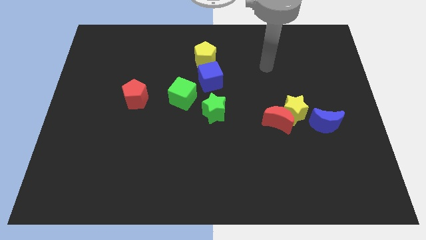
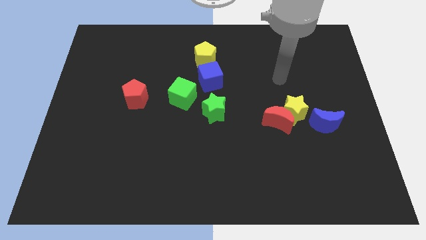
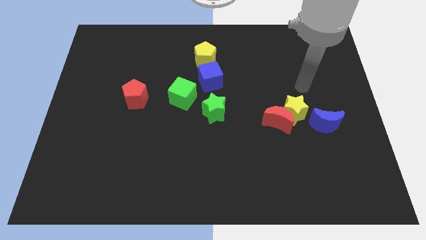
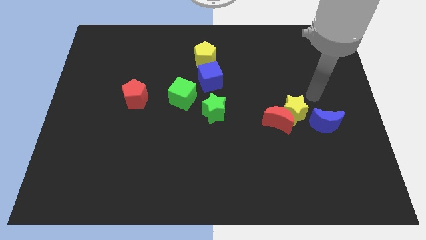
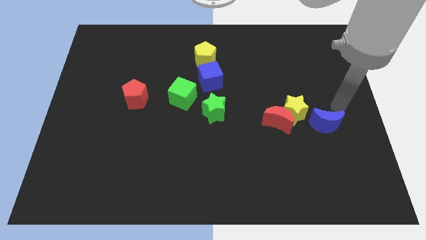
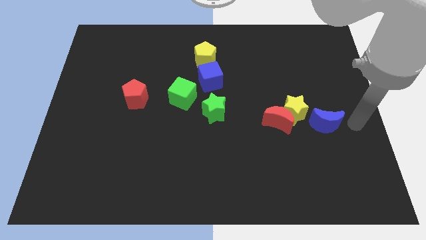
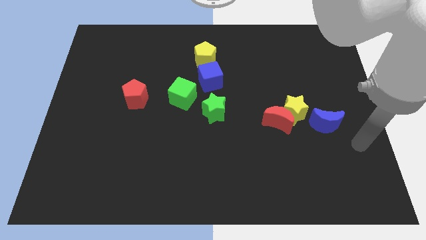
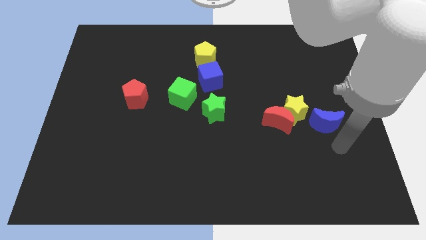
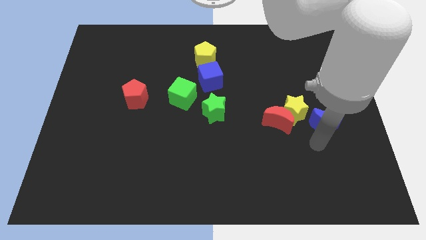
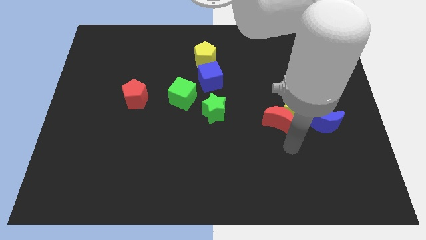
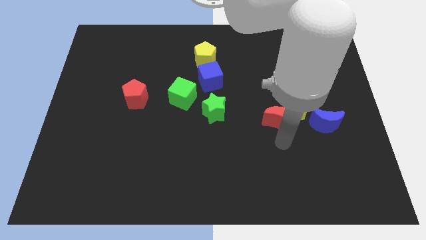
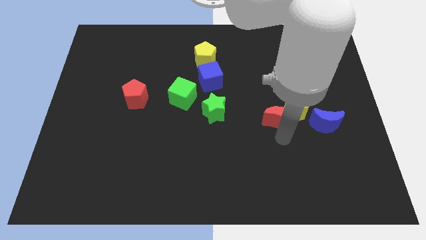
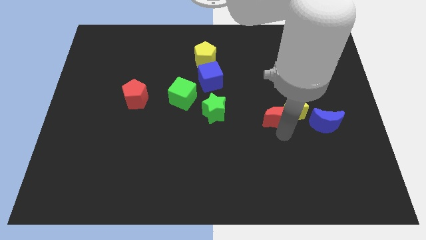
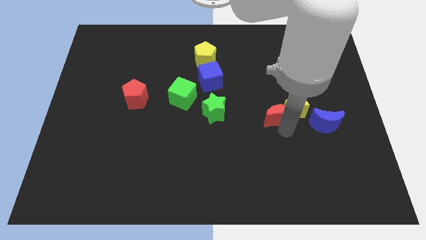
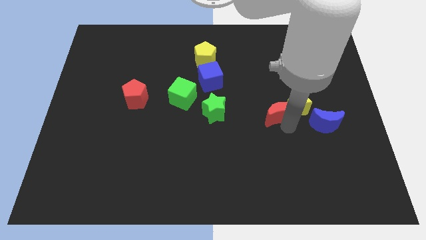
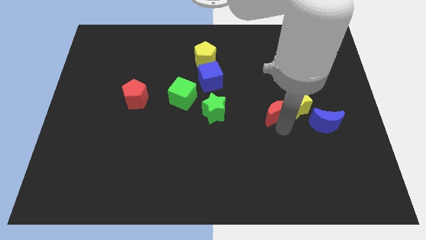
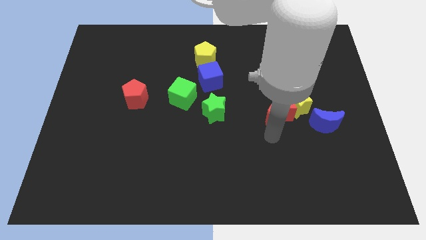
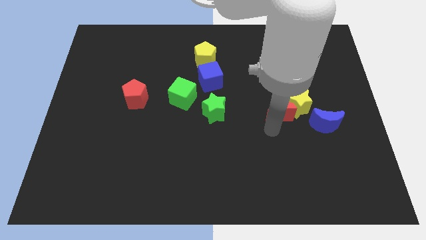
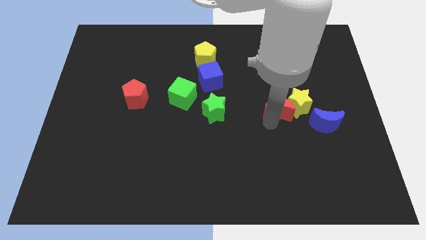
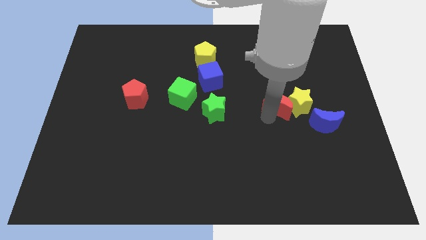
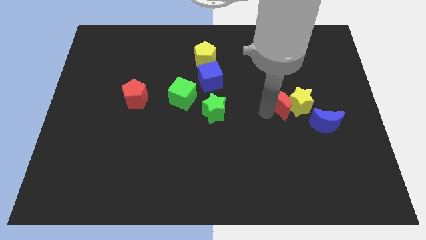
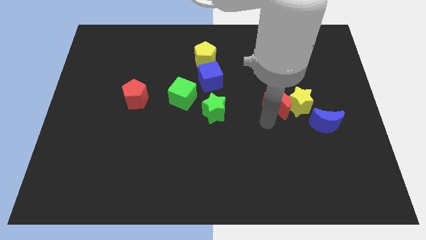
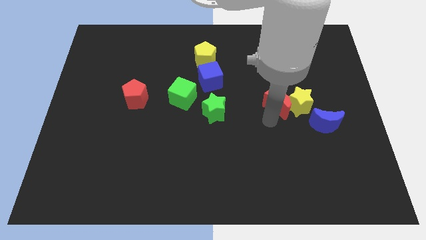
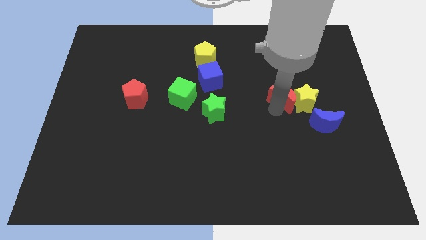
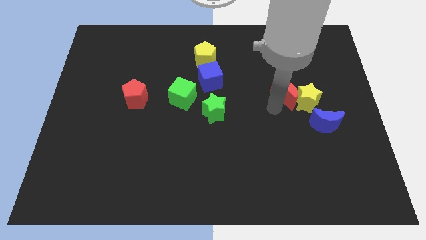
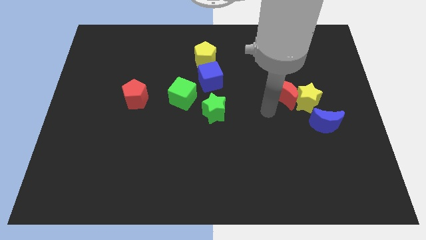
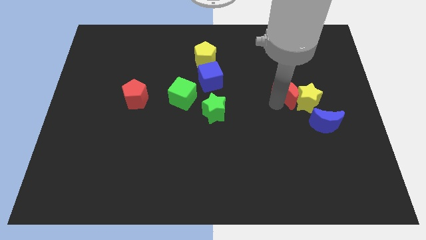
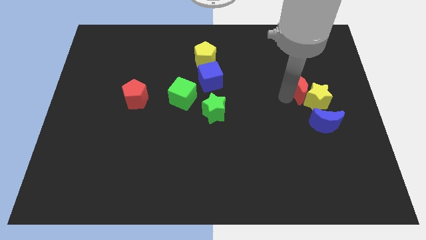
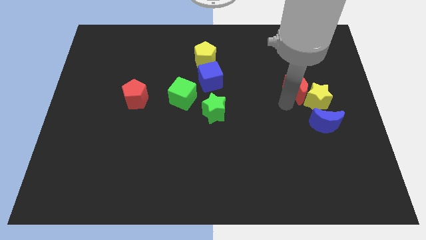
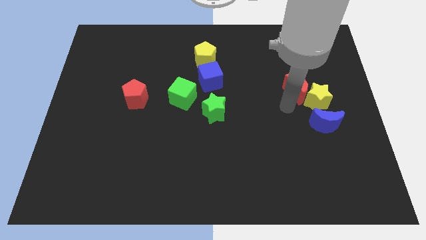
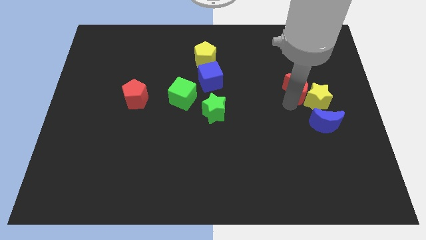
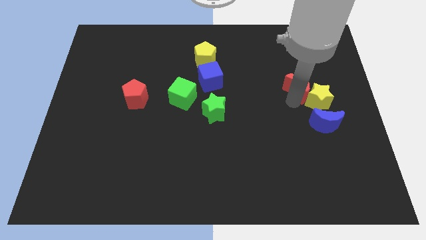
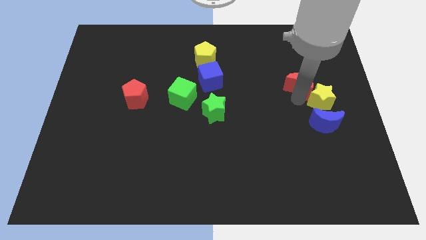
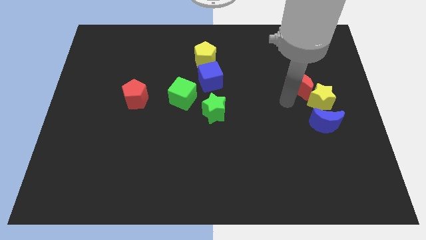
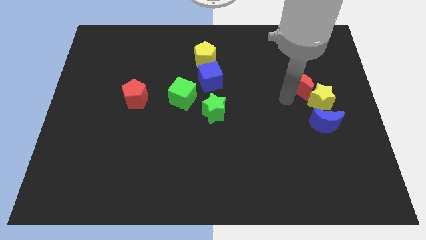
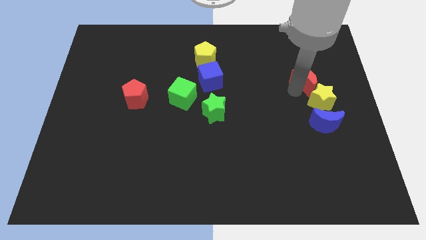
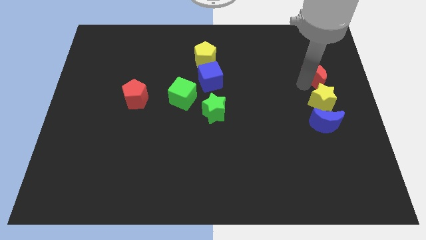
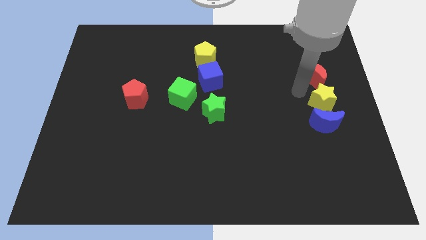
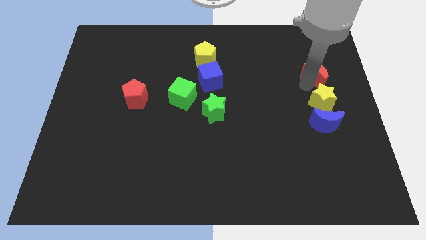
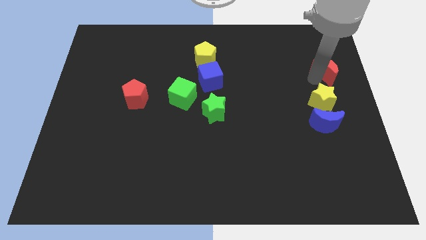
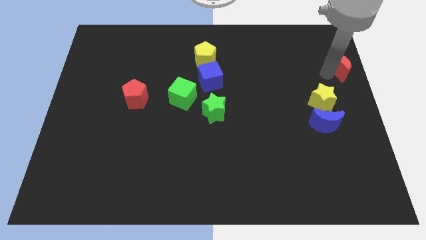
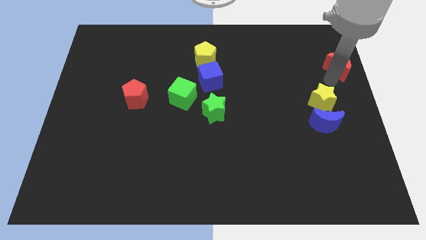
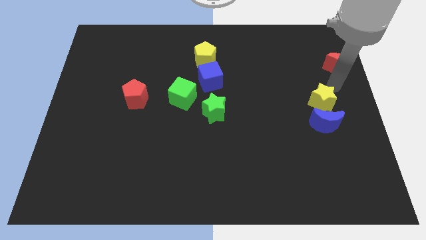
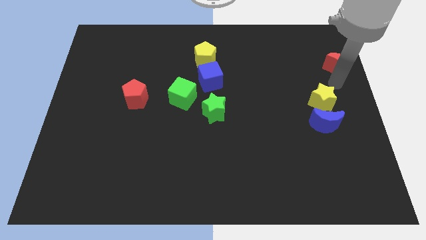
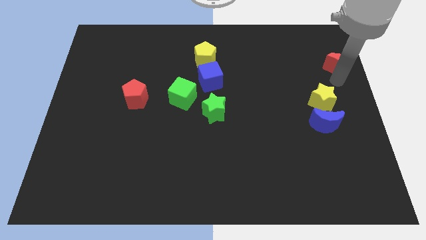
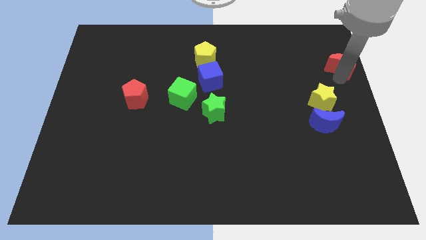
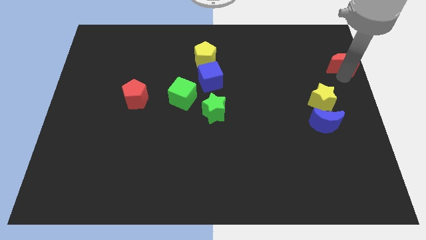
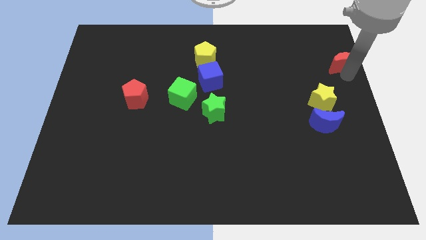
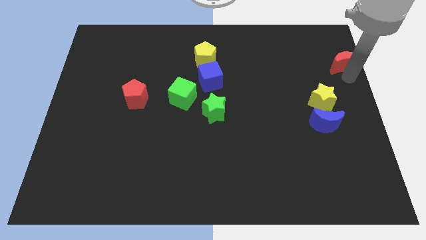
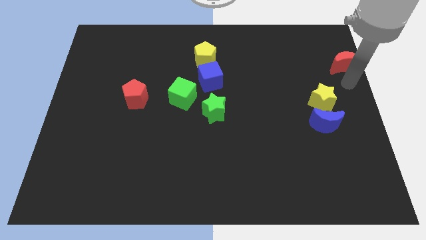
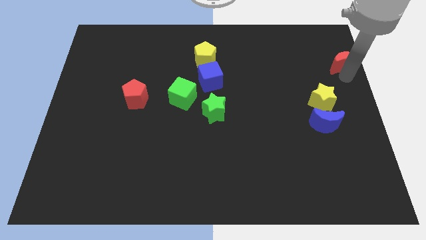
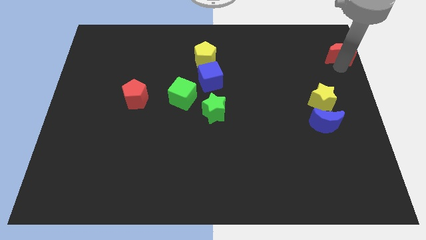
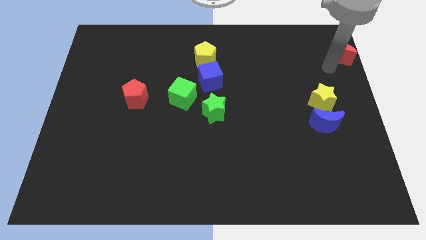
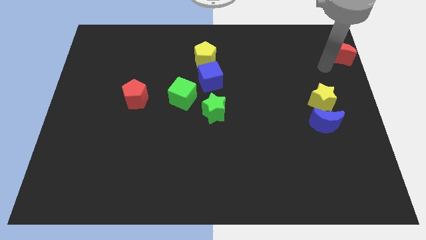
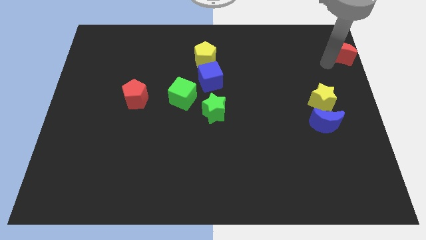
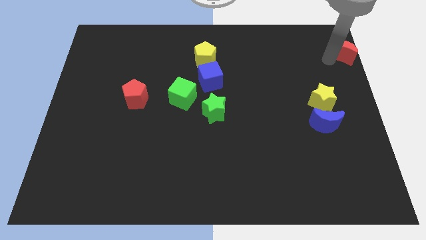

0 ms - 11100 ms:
slide the red moon to the top right
